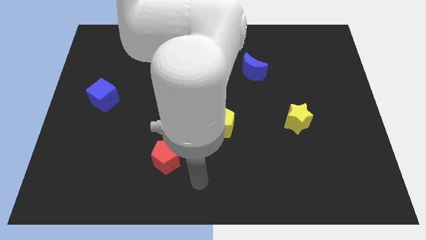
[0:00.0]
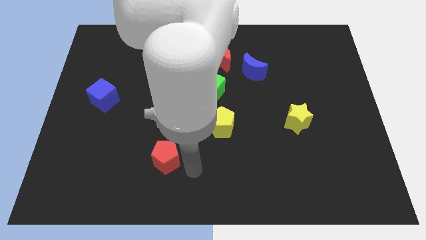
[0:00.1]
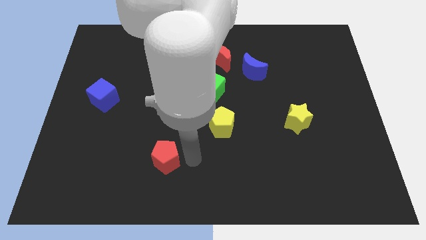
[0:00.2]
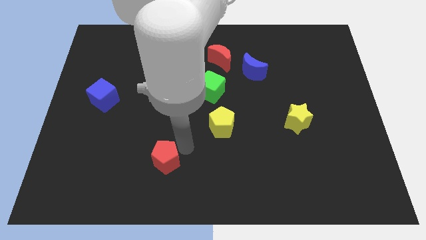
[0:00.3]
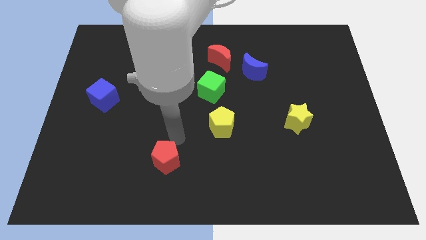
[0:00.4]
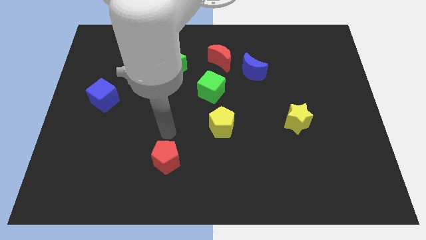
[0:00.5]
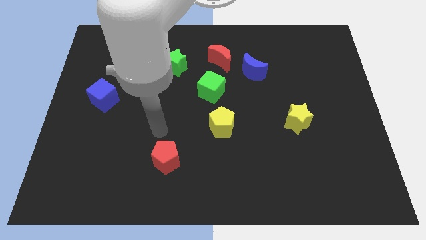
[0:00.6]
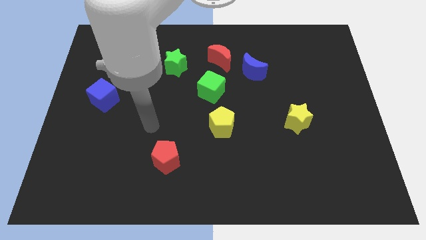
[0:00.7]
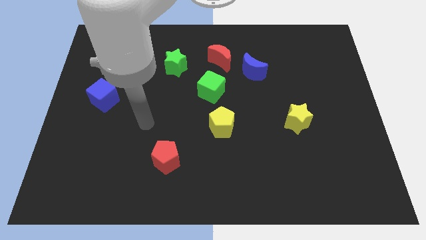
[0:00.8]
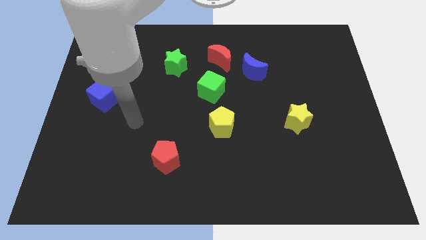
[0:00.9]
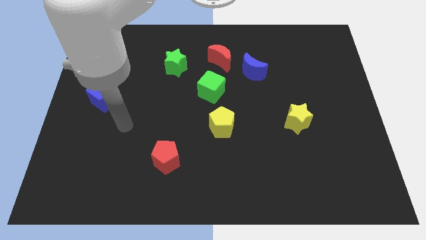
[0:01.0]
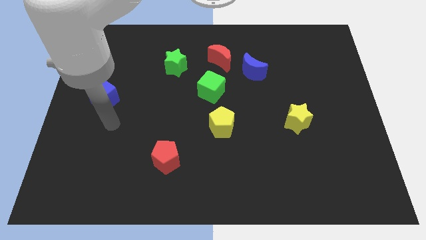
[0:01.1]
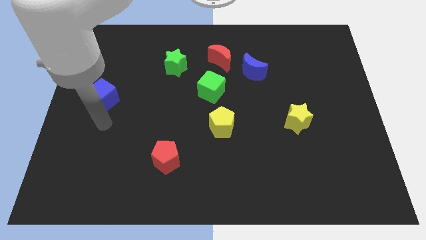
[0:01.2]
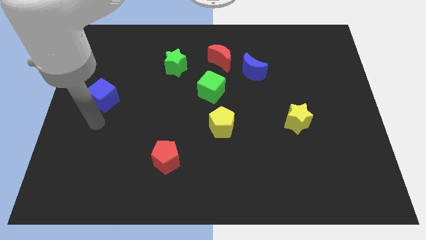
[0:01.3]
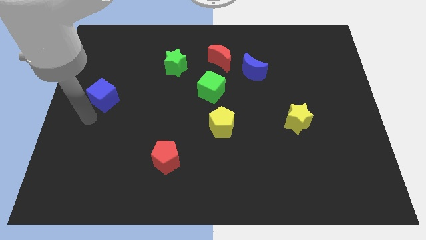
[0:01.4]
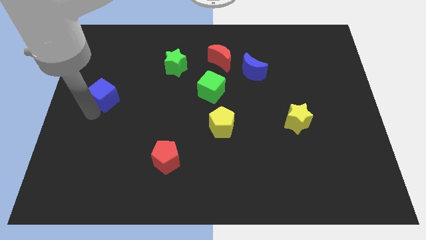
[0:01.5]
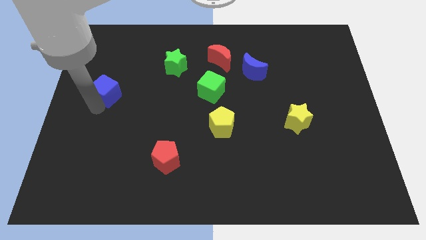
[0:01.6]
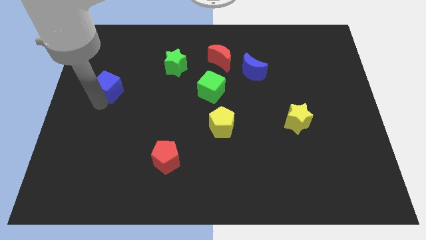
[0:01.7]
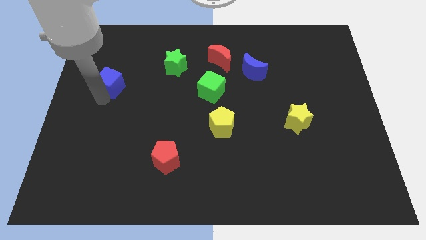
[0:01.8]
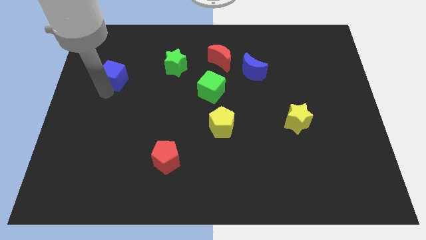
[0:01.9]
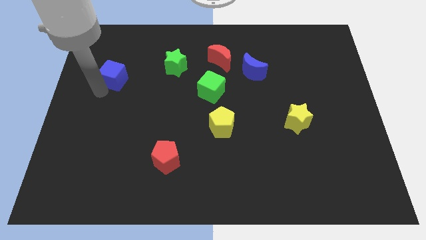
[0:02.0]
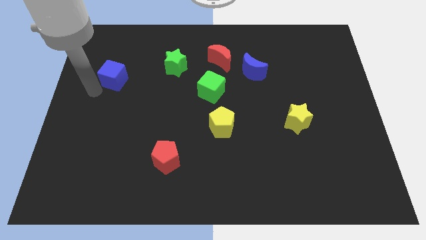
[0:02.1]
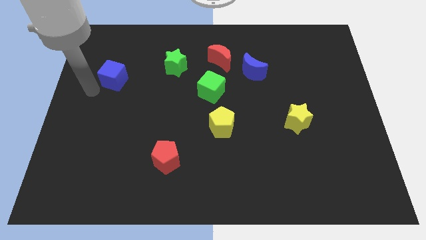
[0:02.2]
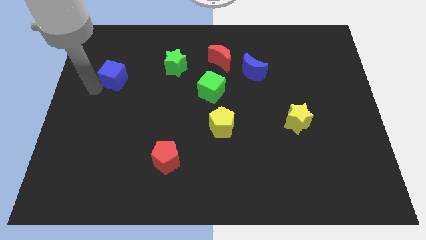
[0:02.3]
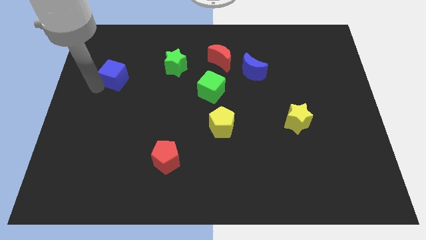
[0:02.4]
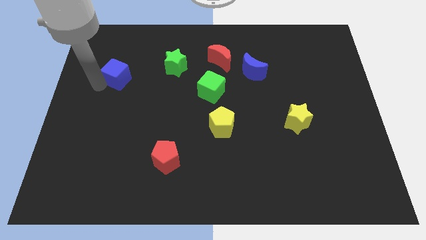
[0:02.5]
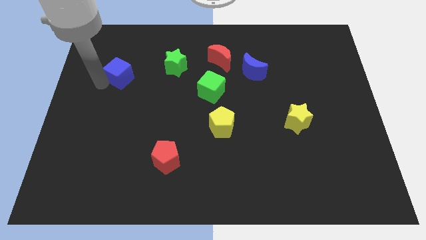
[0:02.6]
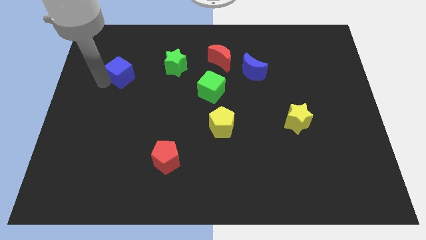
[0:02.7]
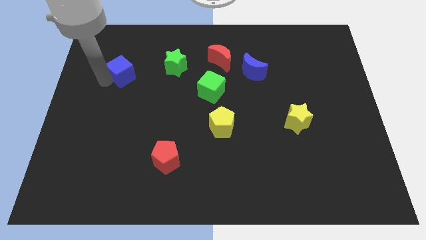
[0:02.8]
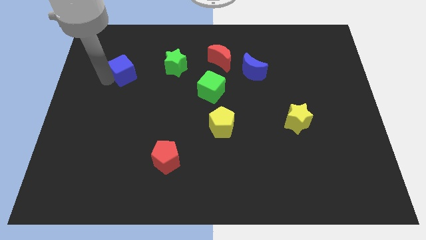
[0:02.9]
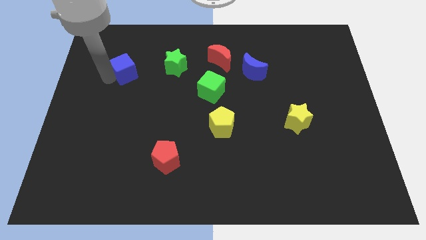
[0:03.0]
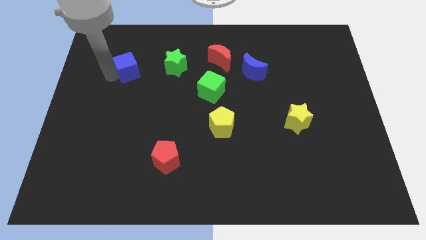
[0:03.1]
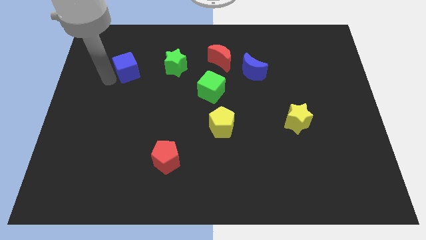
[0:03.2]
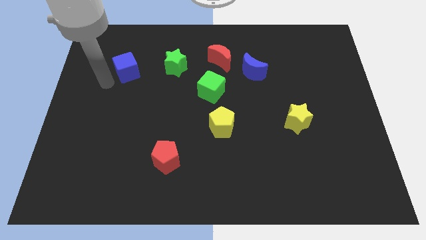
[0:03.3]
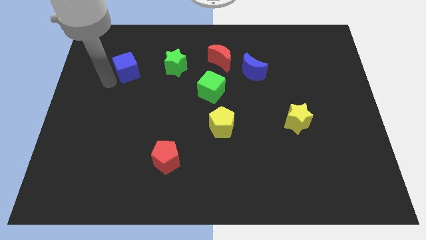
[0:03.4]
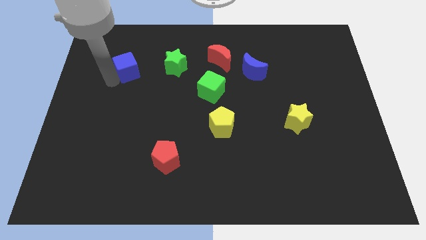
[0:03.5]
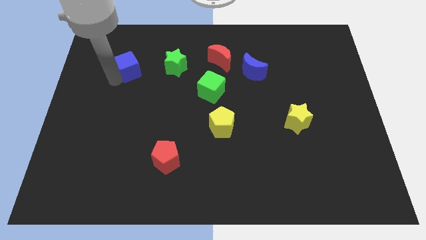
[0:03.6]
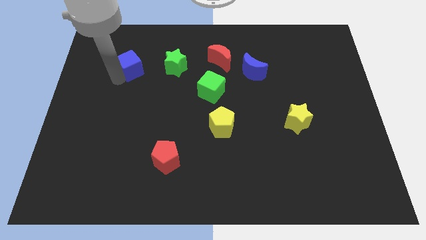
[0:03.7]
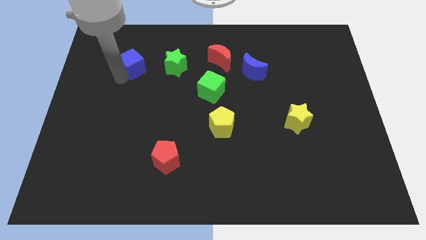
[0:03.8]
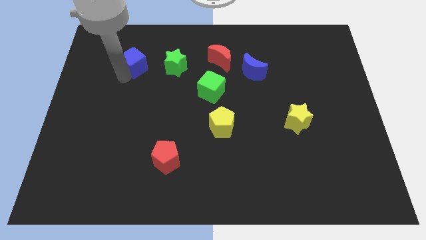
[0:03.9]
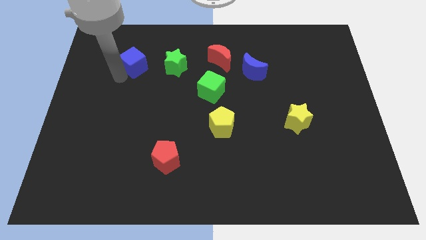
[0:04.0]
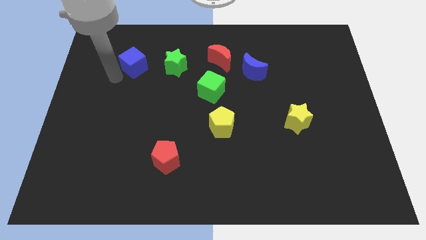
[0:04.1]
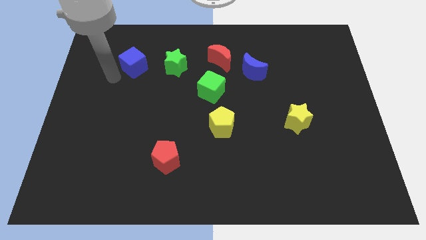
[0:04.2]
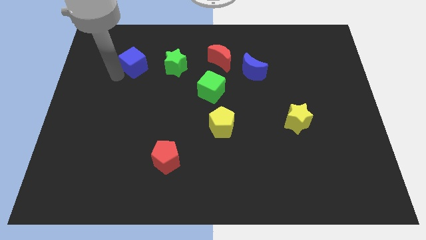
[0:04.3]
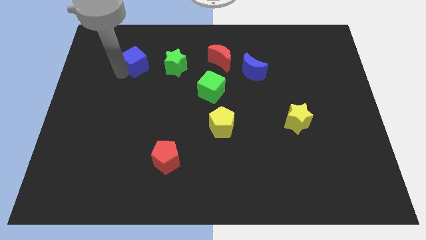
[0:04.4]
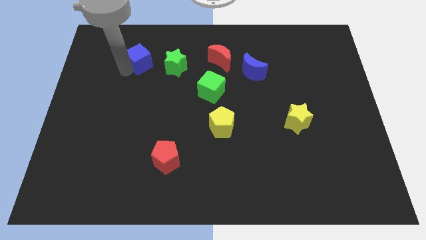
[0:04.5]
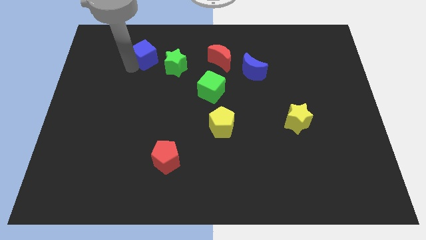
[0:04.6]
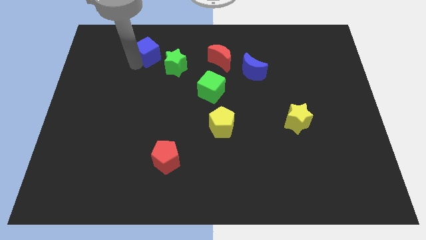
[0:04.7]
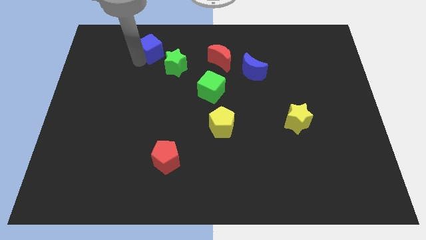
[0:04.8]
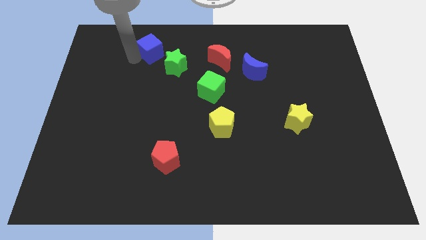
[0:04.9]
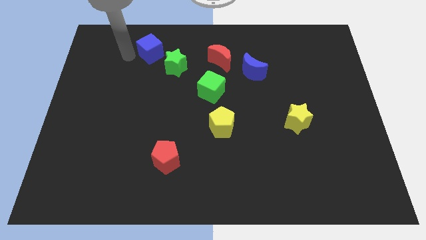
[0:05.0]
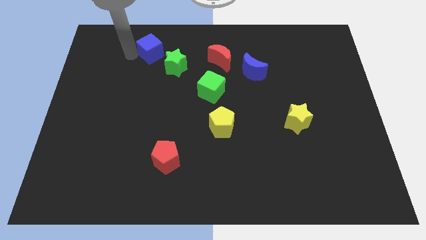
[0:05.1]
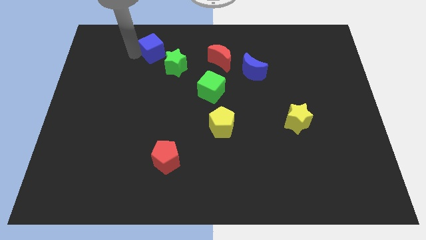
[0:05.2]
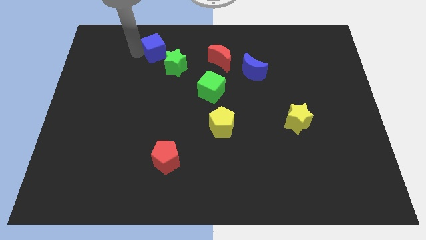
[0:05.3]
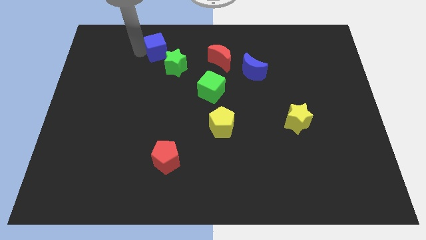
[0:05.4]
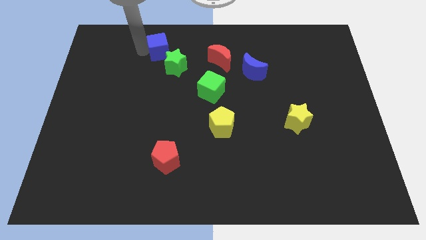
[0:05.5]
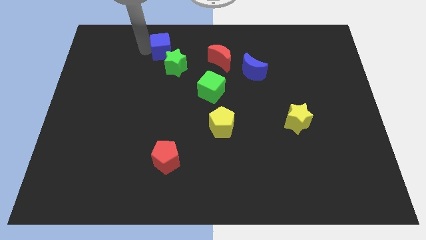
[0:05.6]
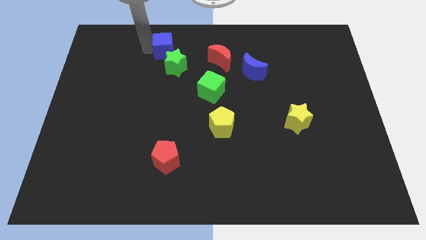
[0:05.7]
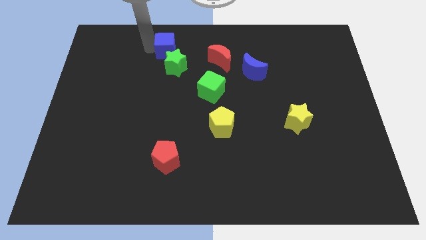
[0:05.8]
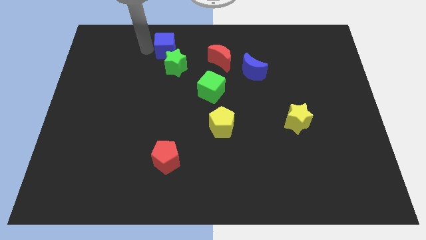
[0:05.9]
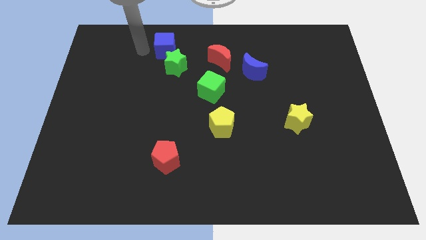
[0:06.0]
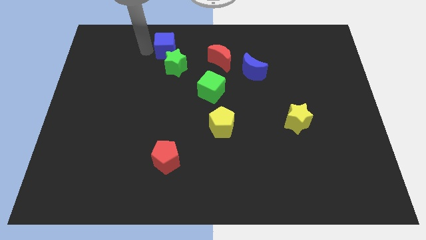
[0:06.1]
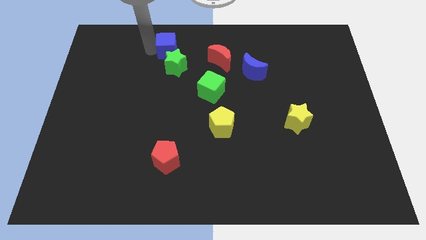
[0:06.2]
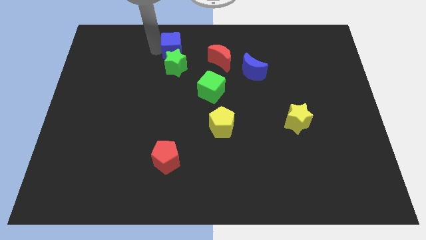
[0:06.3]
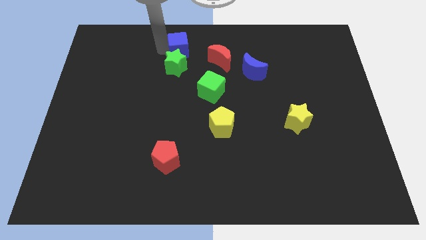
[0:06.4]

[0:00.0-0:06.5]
push the blue cube to the top side

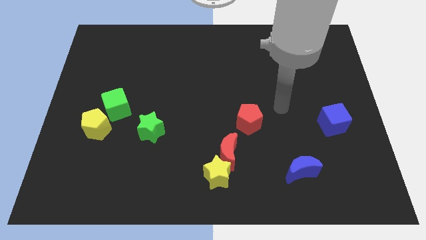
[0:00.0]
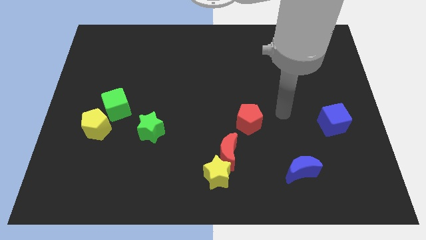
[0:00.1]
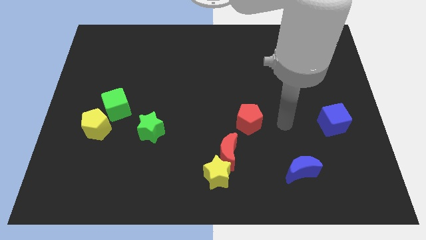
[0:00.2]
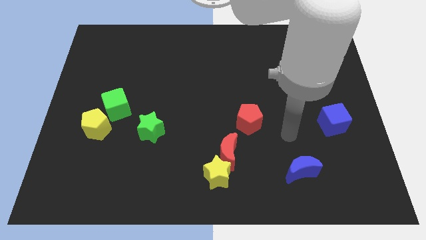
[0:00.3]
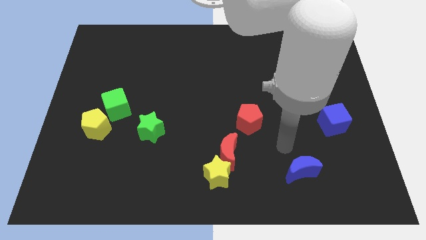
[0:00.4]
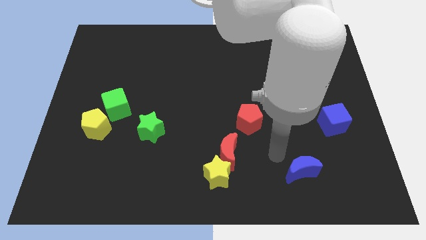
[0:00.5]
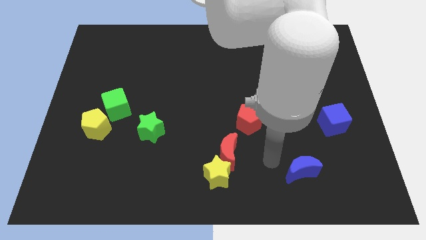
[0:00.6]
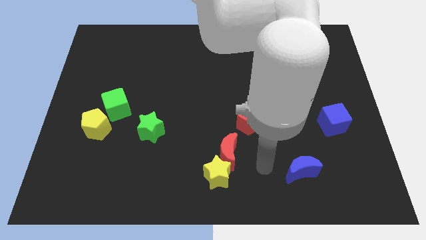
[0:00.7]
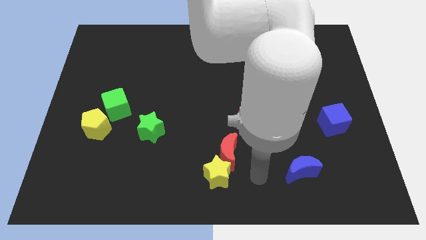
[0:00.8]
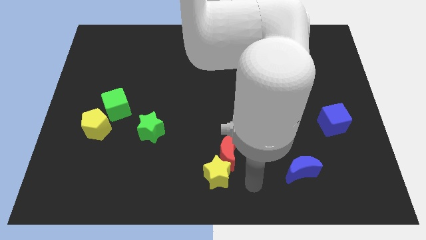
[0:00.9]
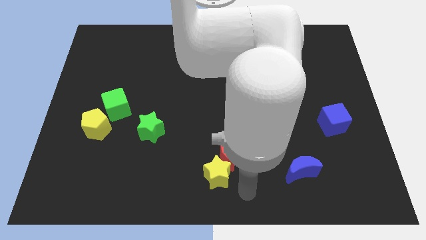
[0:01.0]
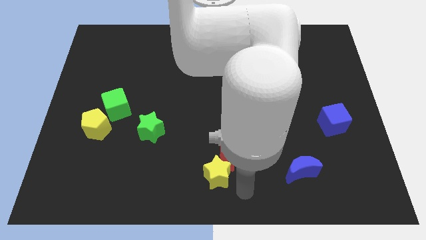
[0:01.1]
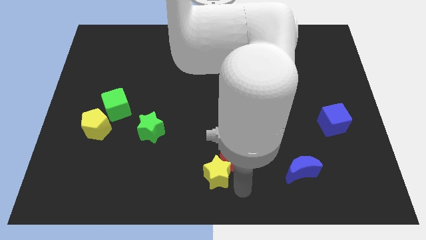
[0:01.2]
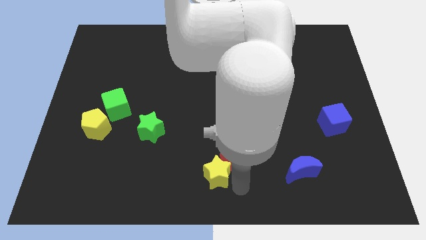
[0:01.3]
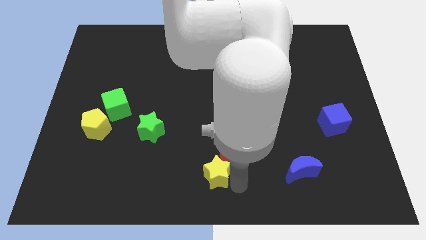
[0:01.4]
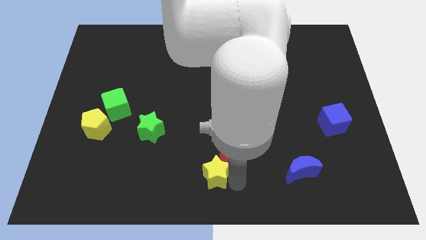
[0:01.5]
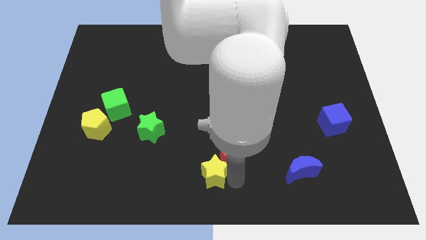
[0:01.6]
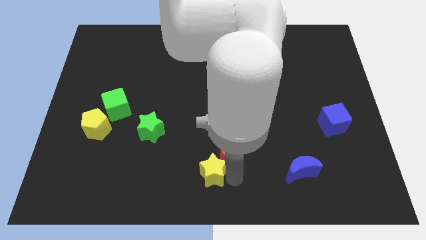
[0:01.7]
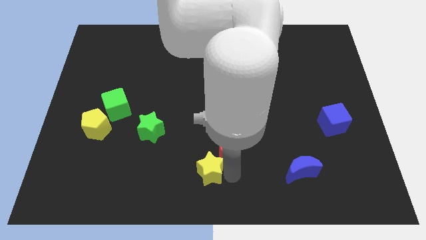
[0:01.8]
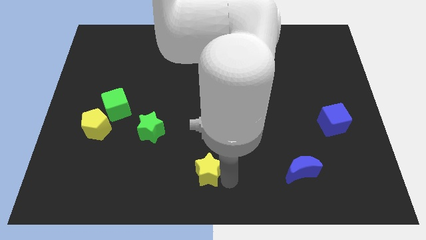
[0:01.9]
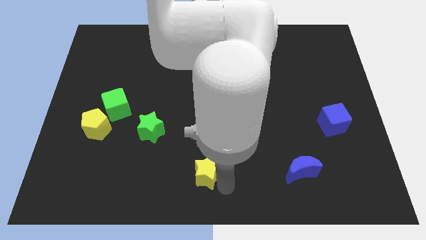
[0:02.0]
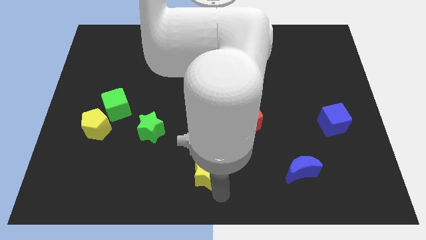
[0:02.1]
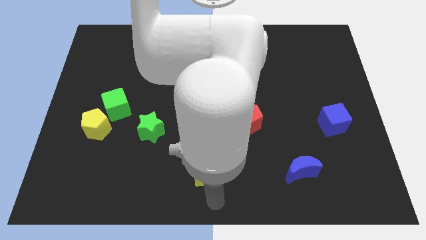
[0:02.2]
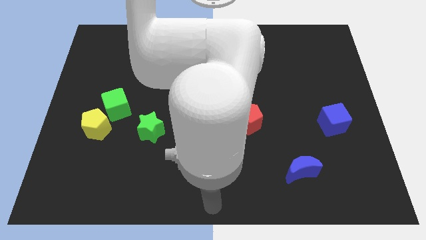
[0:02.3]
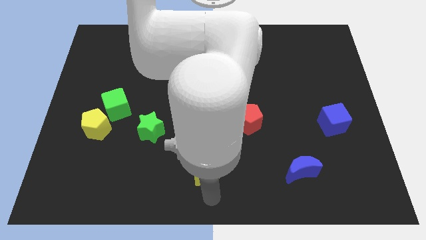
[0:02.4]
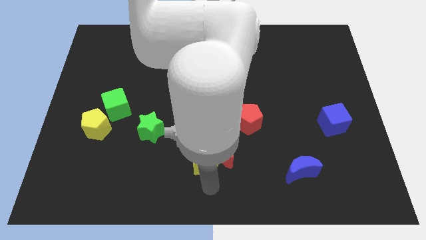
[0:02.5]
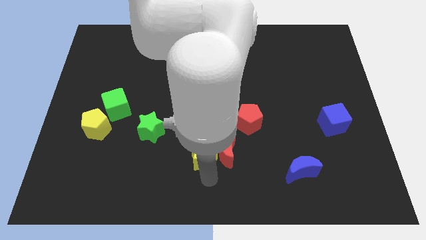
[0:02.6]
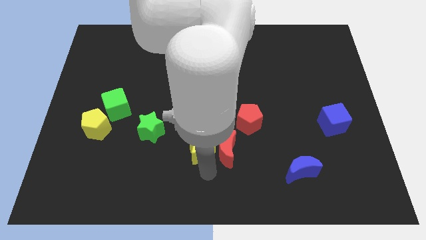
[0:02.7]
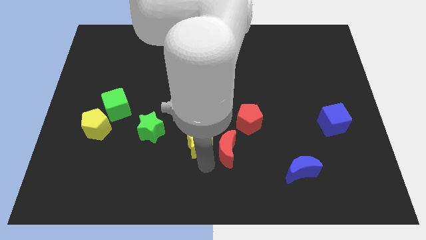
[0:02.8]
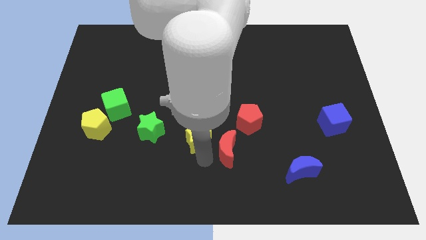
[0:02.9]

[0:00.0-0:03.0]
slide the yellow star to the middle of the board
